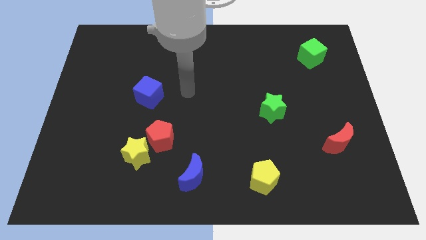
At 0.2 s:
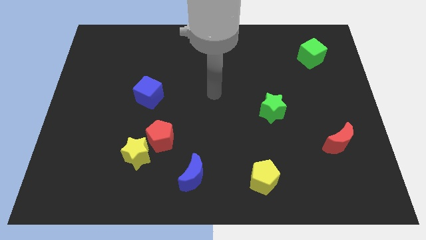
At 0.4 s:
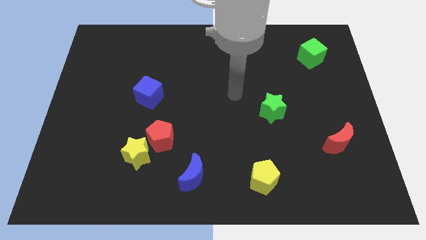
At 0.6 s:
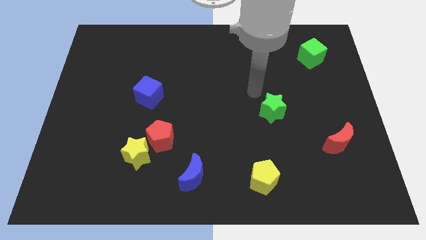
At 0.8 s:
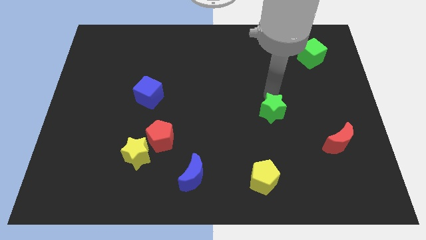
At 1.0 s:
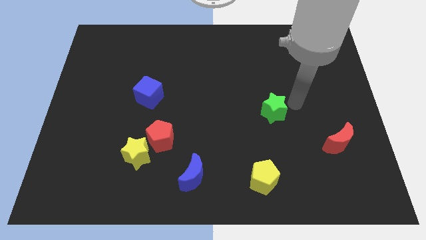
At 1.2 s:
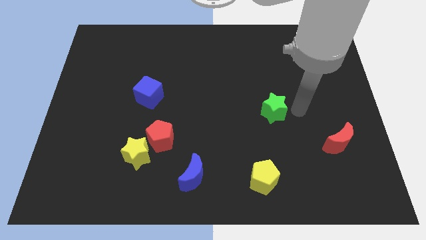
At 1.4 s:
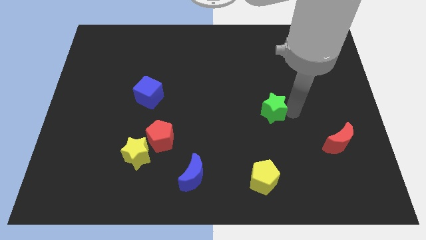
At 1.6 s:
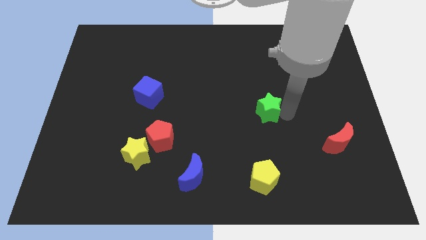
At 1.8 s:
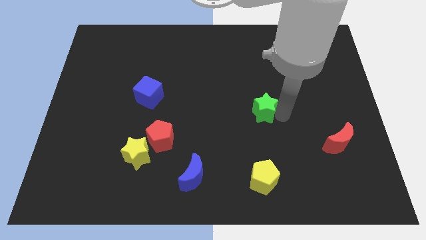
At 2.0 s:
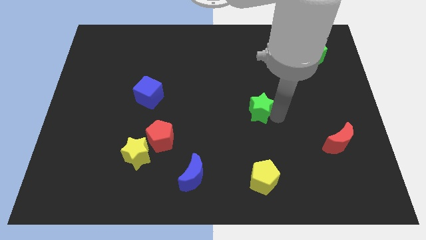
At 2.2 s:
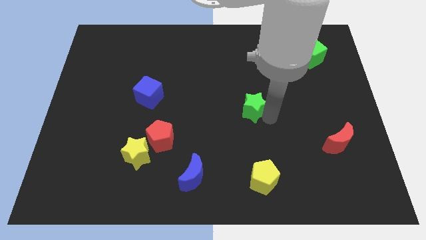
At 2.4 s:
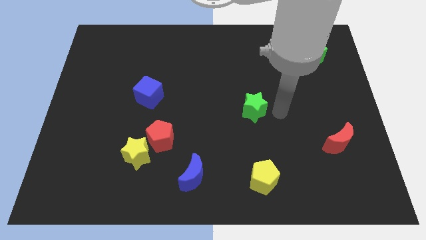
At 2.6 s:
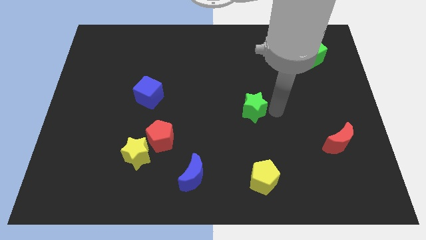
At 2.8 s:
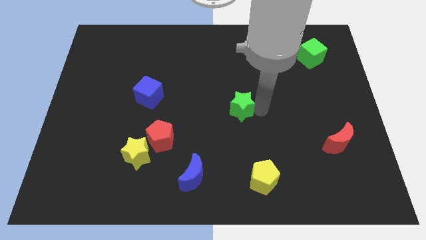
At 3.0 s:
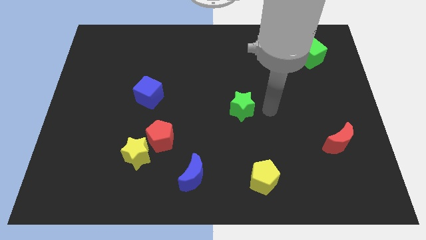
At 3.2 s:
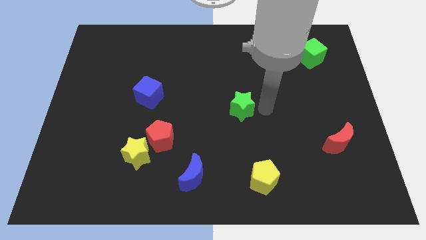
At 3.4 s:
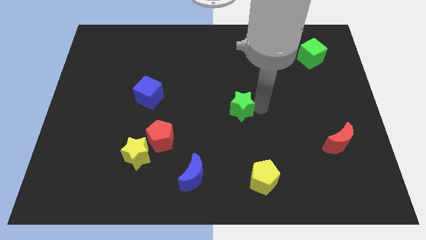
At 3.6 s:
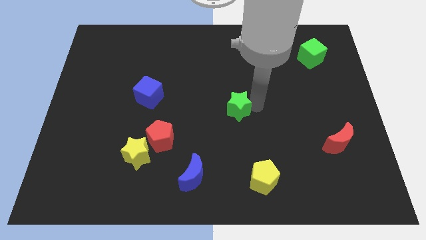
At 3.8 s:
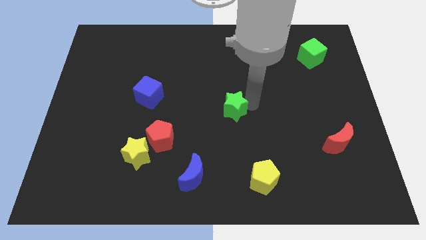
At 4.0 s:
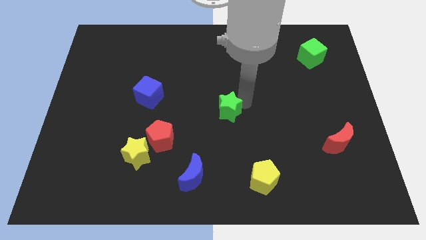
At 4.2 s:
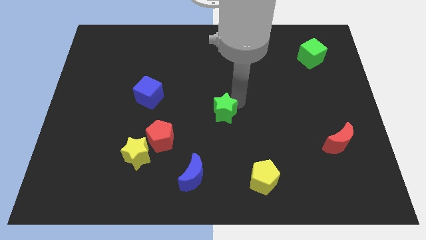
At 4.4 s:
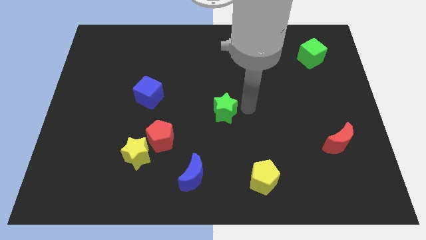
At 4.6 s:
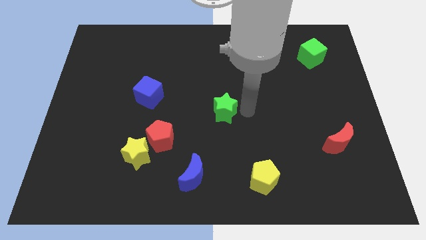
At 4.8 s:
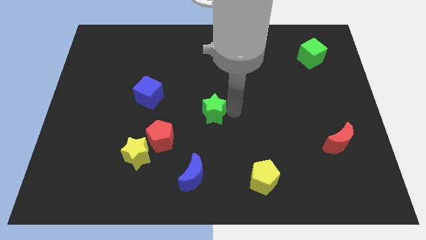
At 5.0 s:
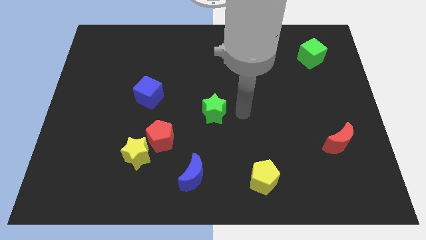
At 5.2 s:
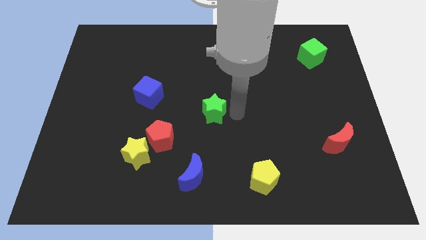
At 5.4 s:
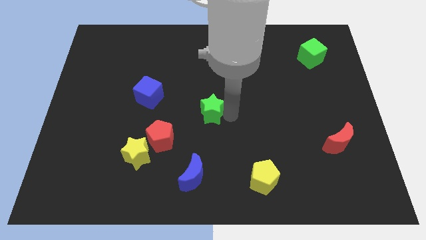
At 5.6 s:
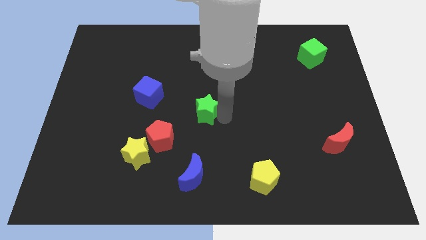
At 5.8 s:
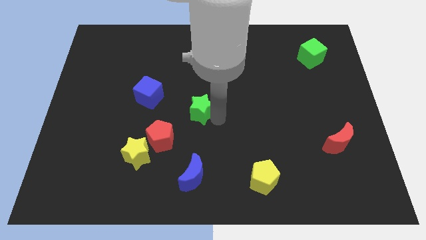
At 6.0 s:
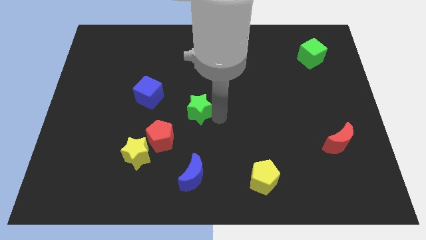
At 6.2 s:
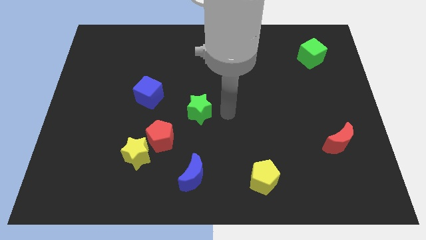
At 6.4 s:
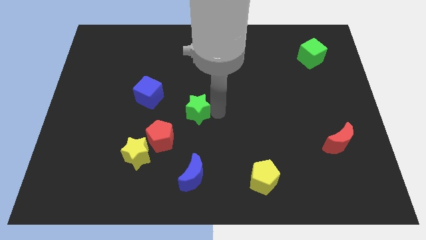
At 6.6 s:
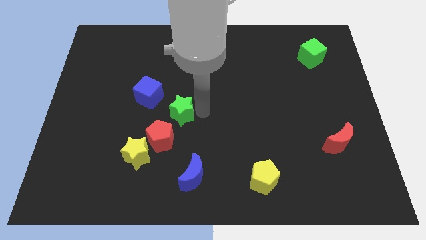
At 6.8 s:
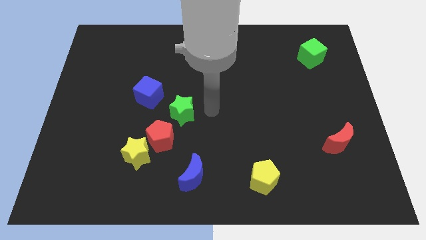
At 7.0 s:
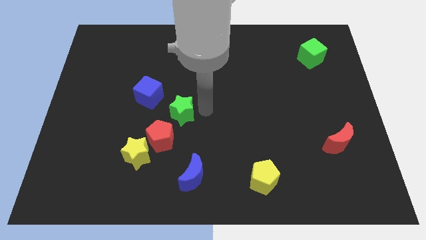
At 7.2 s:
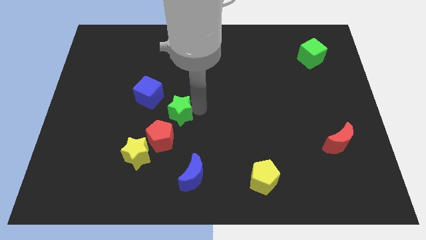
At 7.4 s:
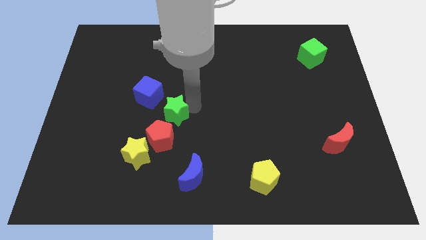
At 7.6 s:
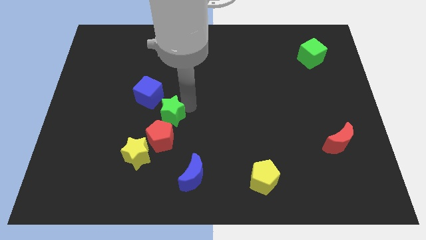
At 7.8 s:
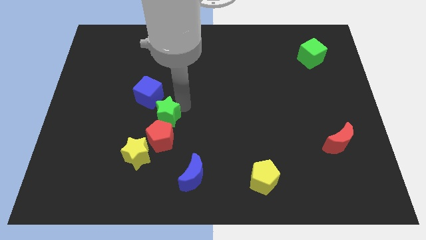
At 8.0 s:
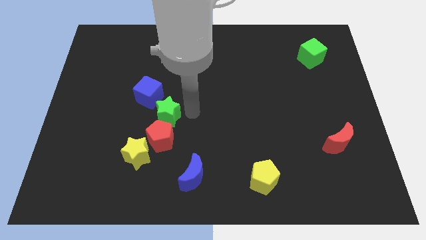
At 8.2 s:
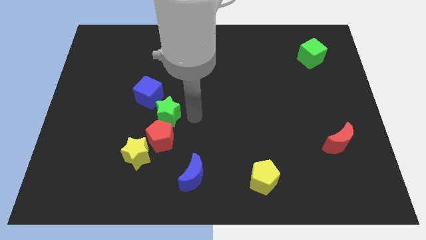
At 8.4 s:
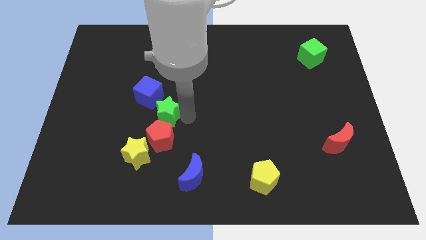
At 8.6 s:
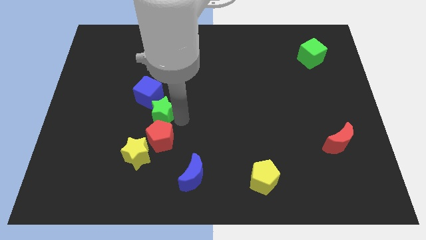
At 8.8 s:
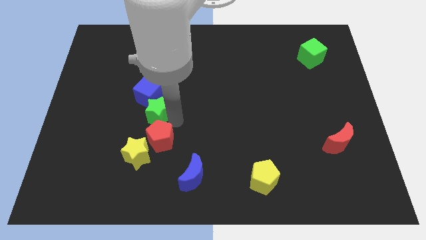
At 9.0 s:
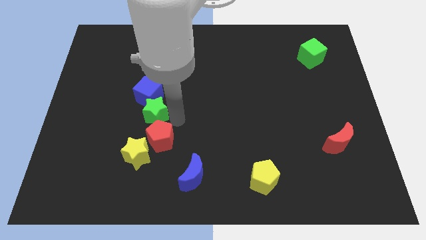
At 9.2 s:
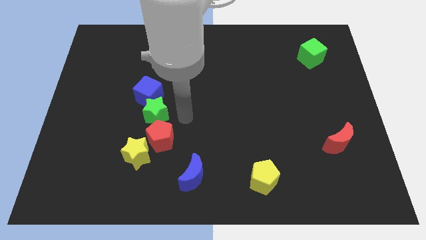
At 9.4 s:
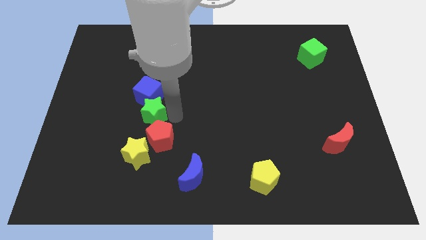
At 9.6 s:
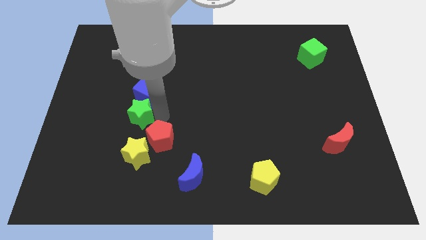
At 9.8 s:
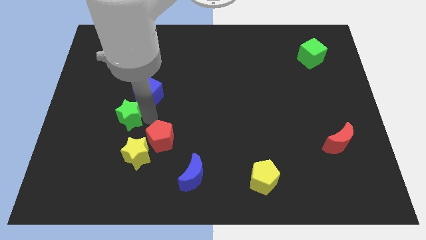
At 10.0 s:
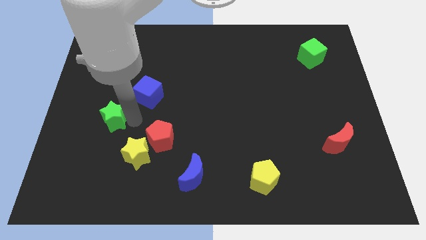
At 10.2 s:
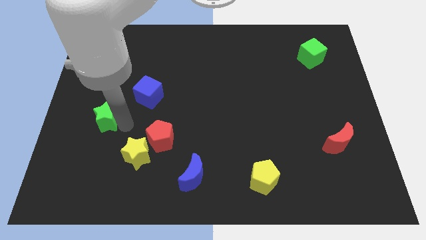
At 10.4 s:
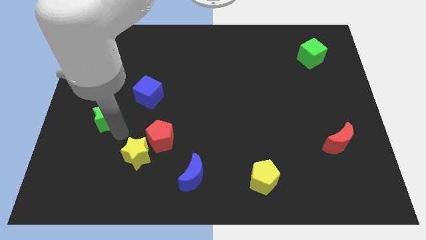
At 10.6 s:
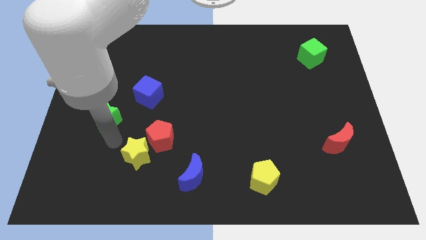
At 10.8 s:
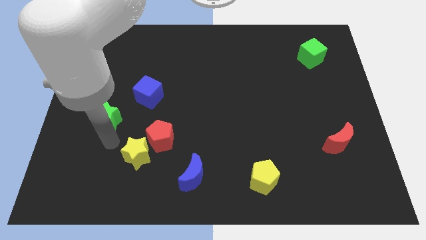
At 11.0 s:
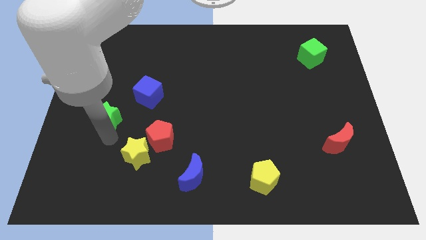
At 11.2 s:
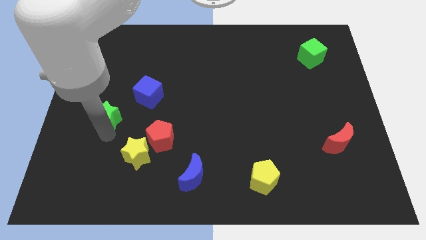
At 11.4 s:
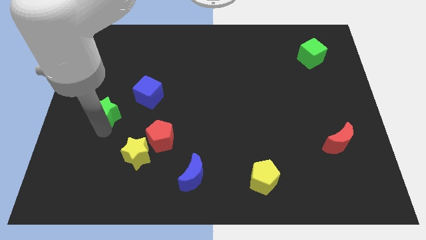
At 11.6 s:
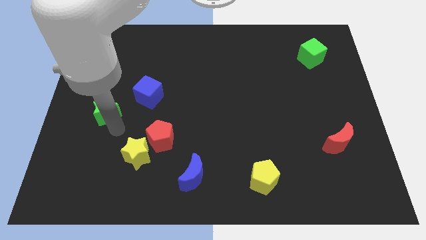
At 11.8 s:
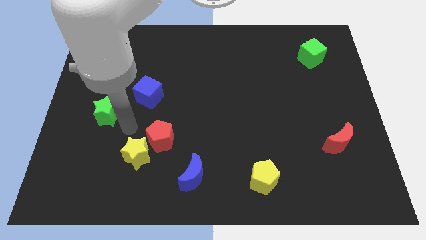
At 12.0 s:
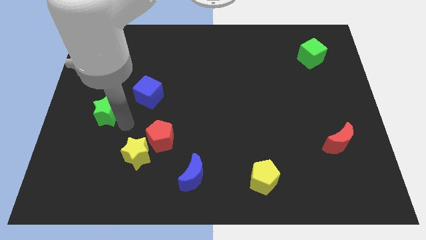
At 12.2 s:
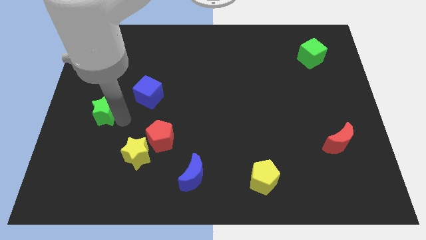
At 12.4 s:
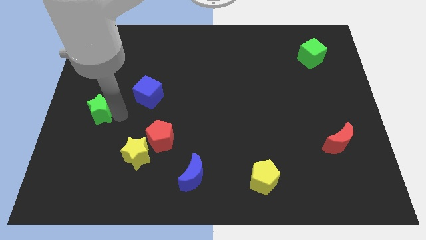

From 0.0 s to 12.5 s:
put the green star to the center left
